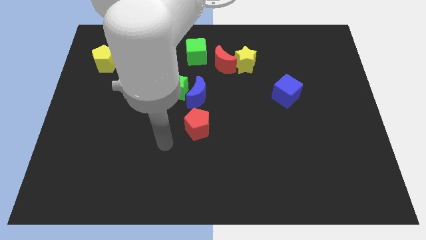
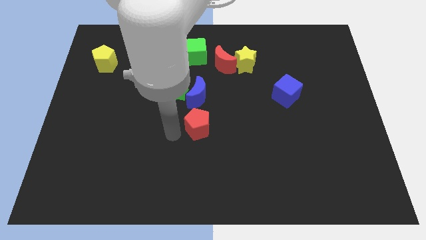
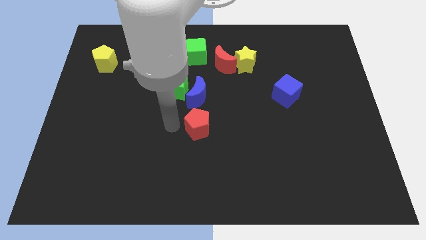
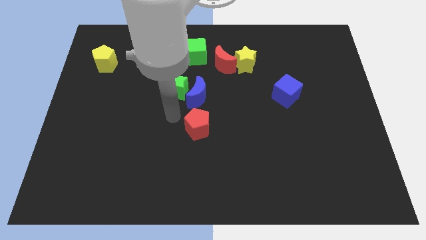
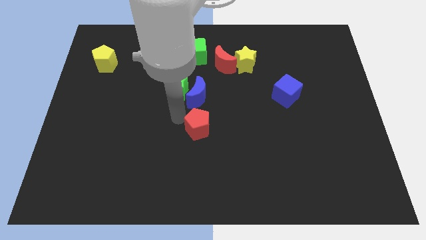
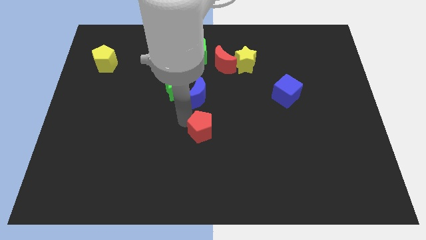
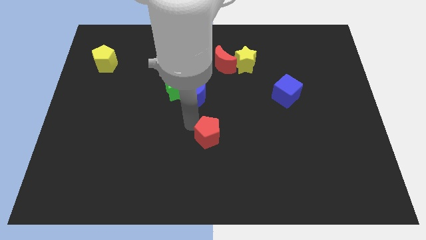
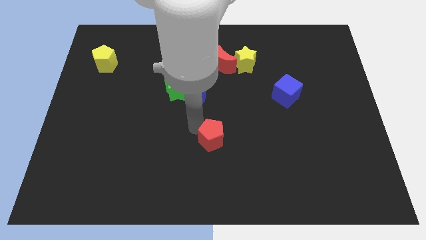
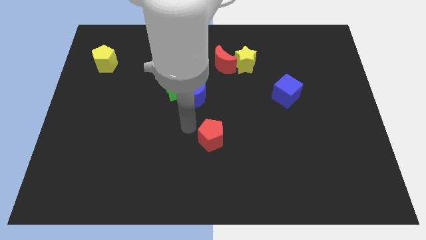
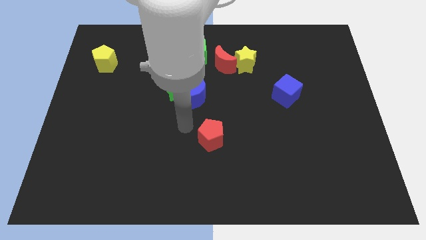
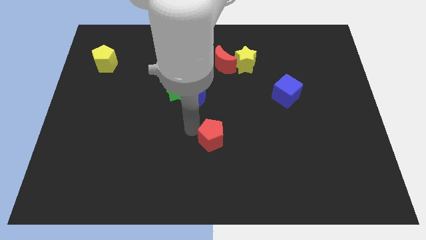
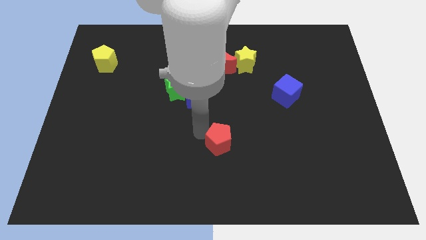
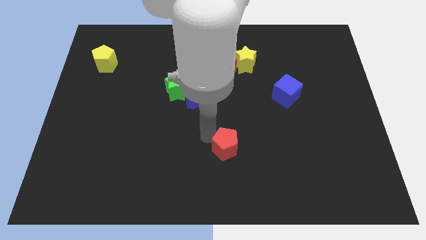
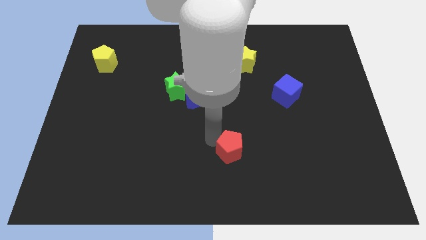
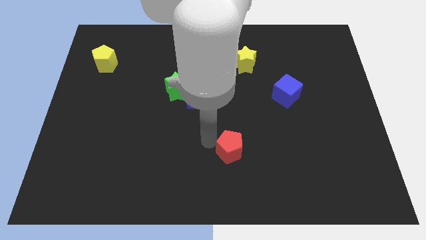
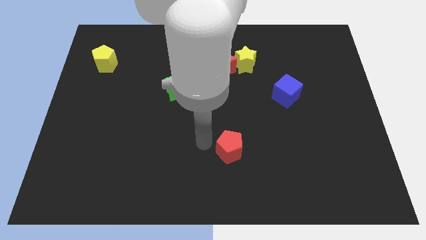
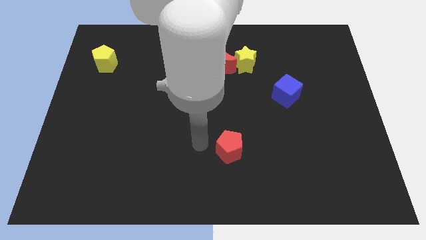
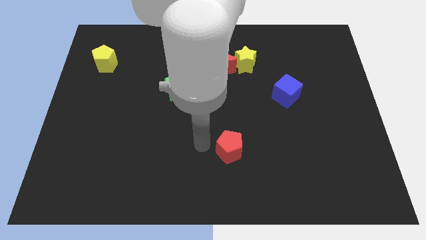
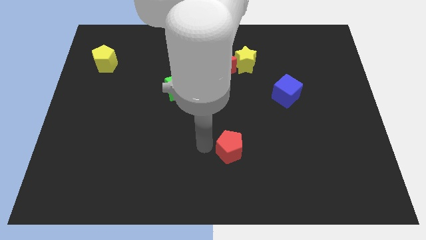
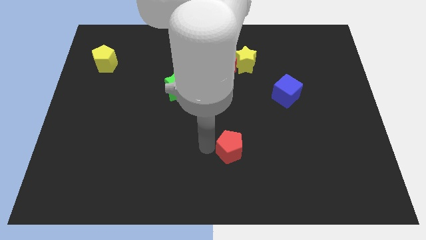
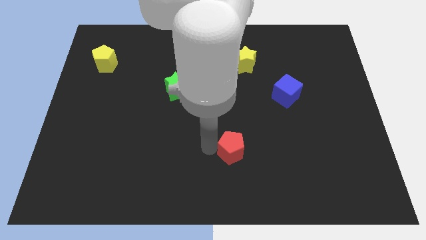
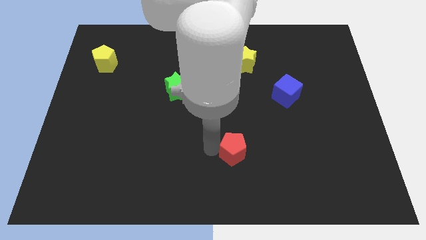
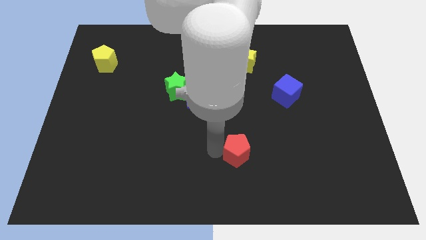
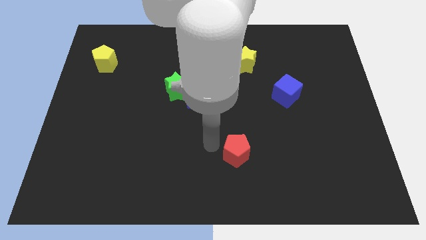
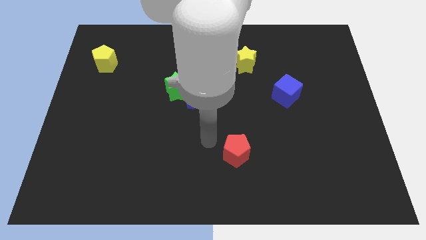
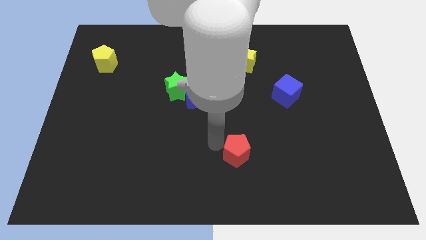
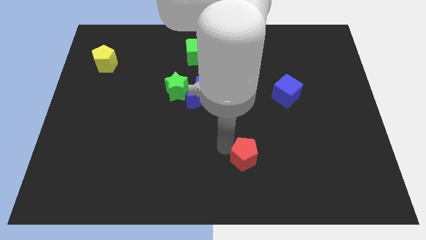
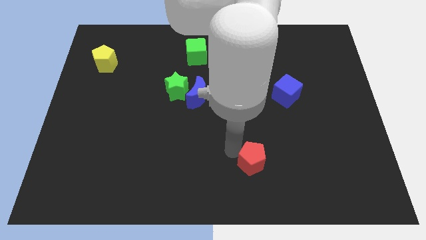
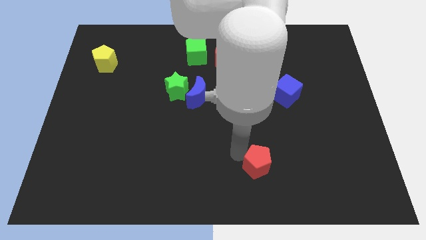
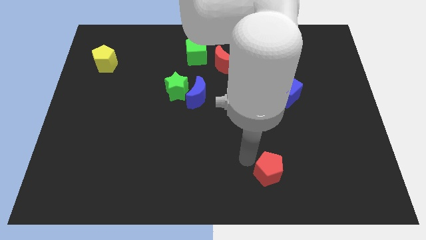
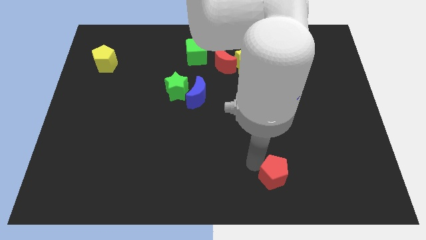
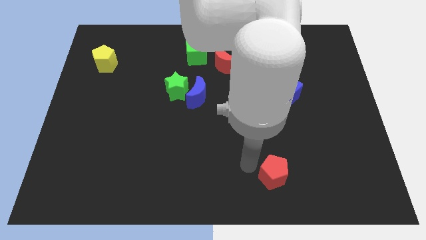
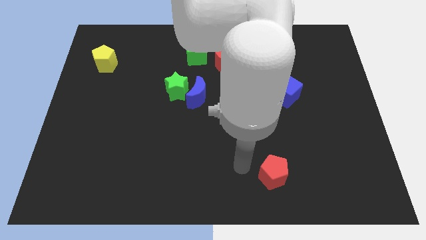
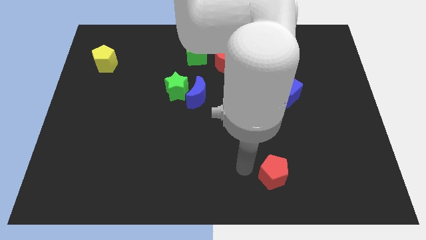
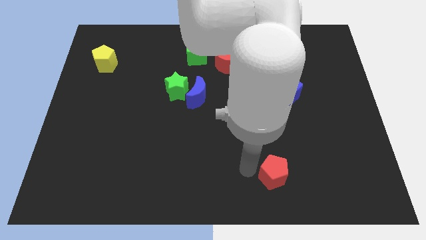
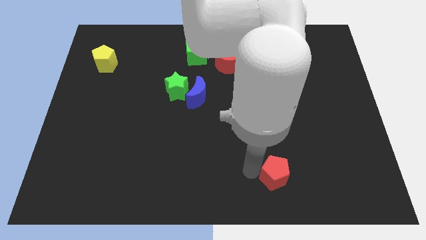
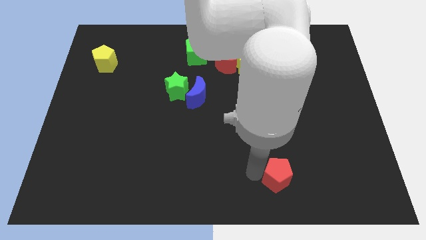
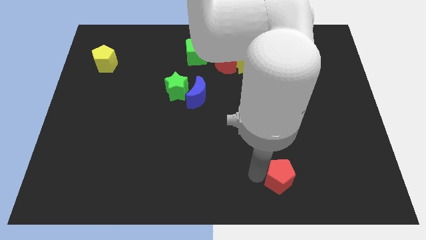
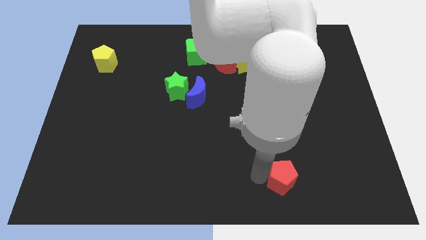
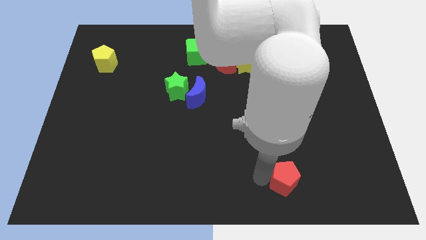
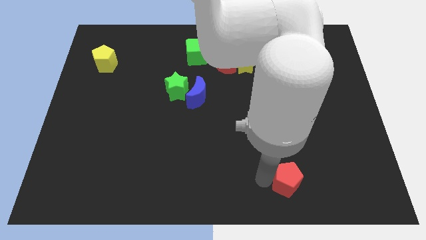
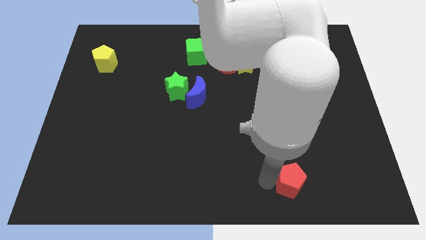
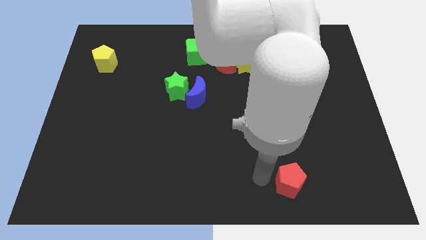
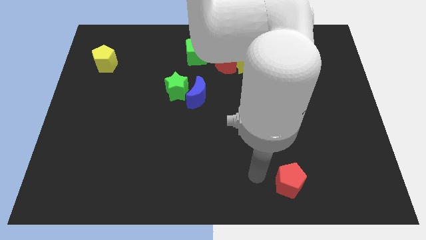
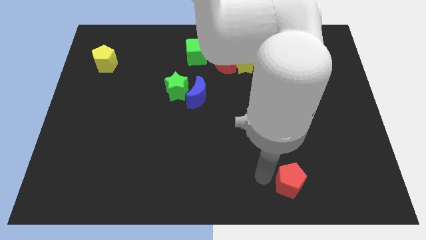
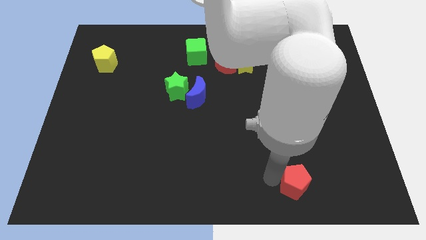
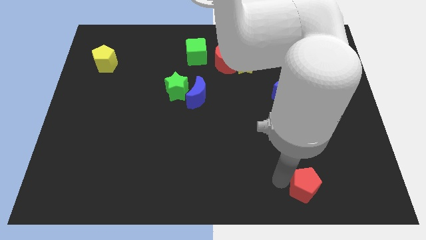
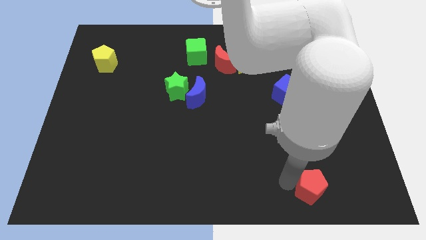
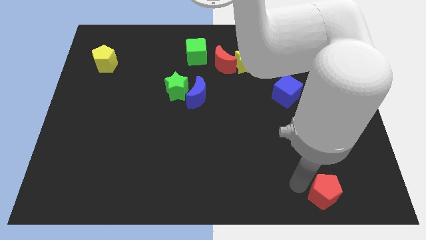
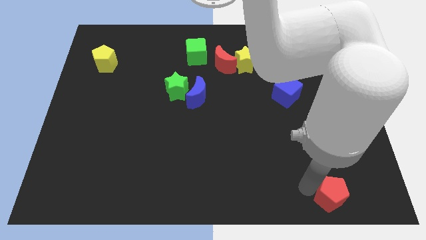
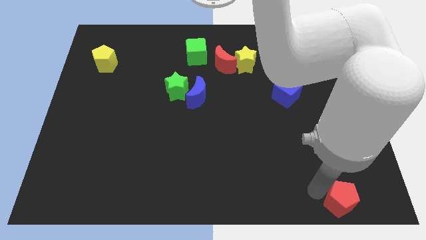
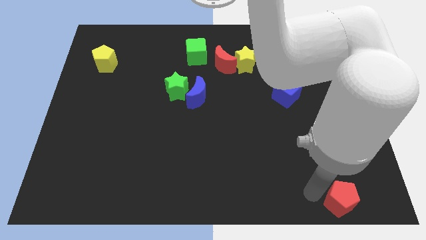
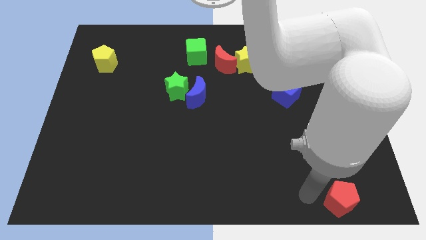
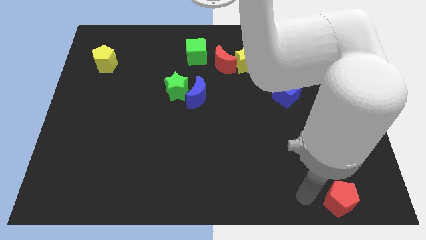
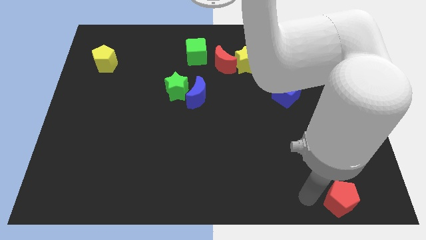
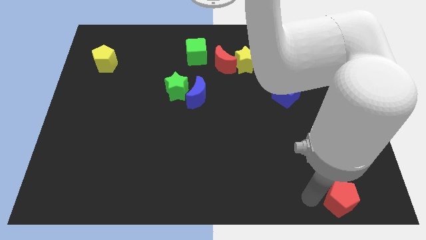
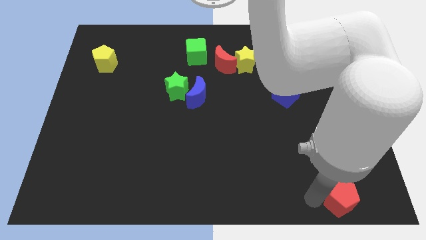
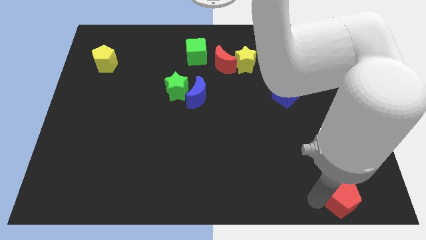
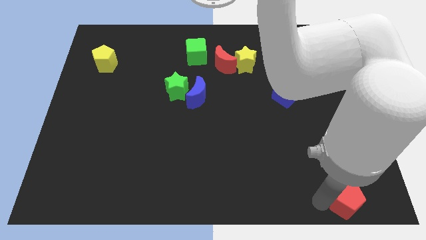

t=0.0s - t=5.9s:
put the red pentagon to the bottom right of the board
